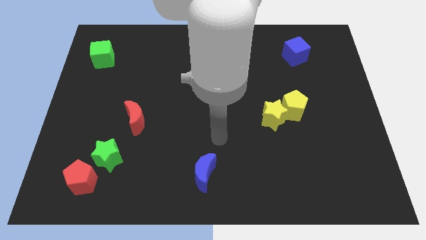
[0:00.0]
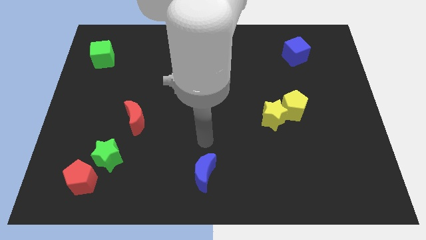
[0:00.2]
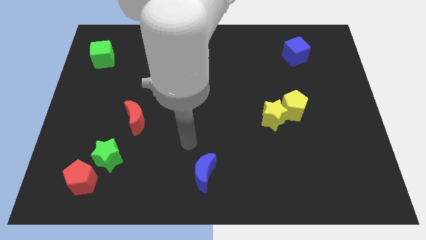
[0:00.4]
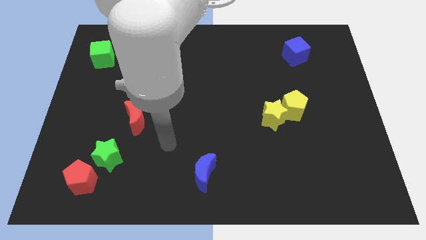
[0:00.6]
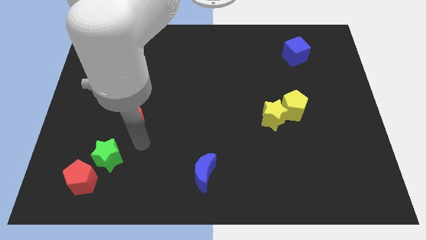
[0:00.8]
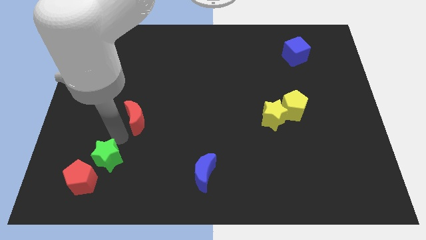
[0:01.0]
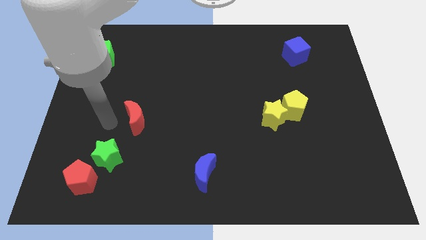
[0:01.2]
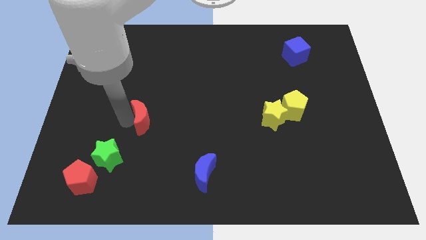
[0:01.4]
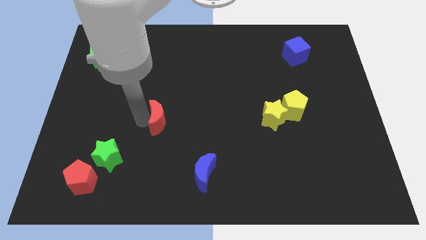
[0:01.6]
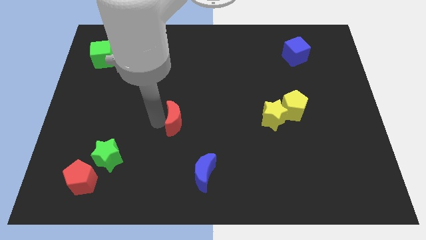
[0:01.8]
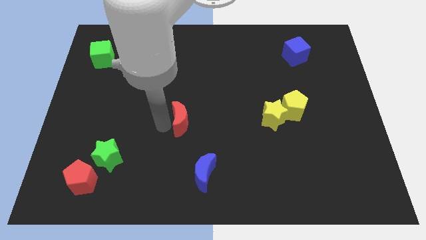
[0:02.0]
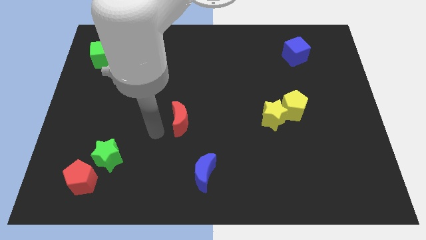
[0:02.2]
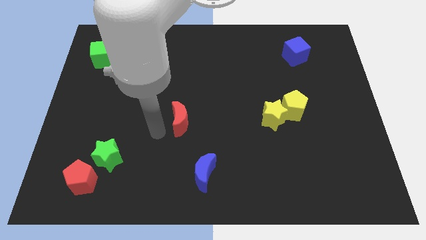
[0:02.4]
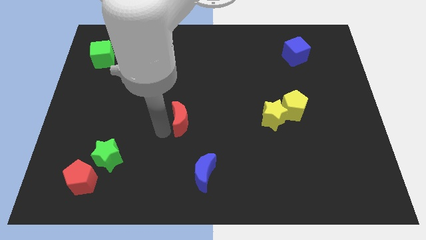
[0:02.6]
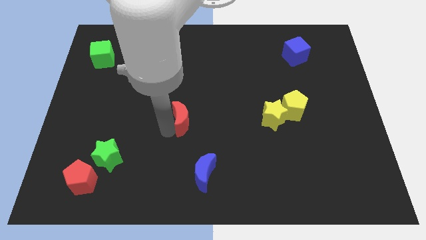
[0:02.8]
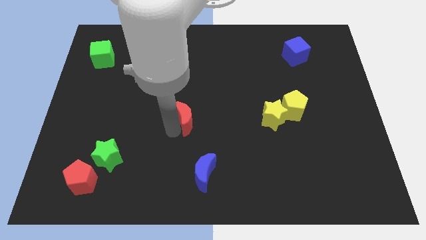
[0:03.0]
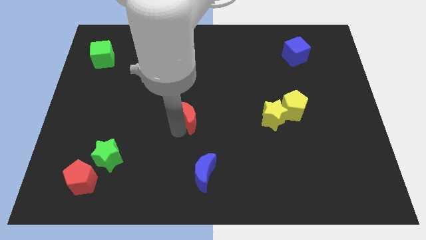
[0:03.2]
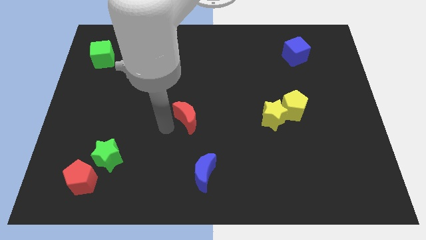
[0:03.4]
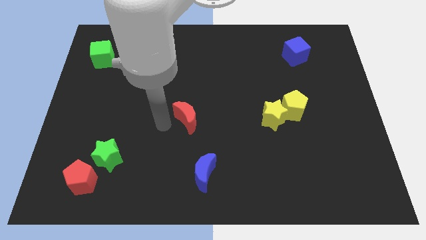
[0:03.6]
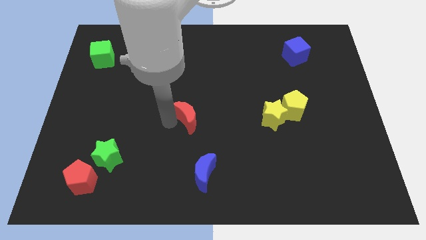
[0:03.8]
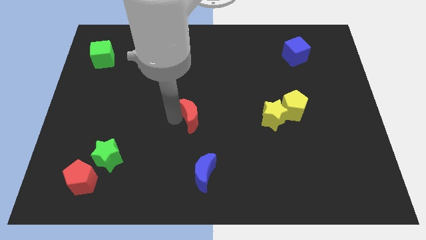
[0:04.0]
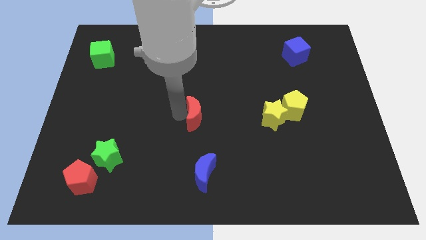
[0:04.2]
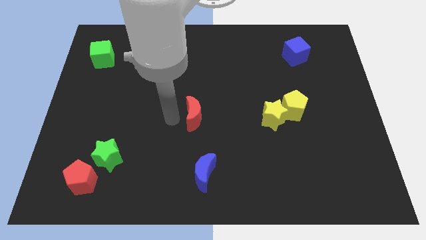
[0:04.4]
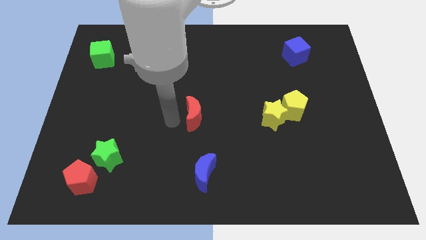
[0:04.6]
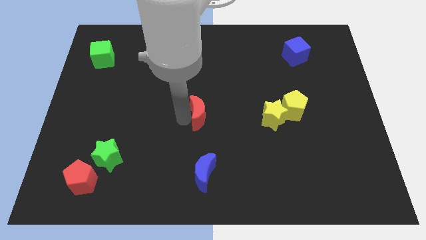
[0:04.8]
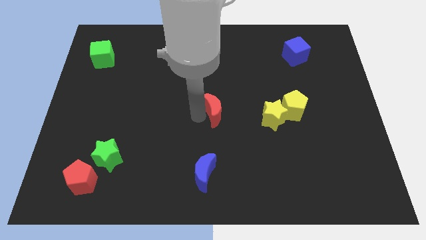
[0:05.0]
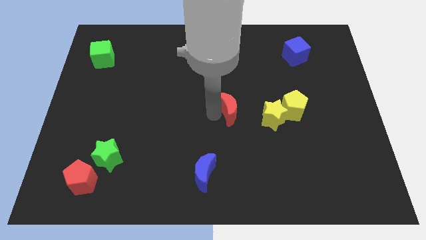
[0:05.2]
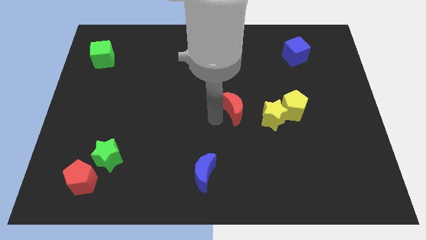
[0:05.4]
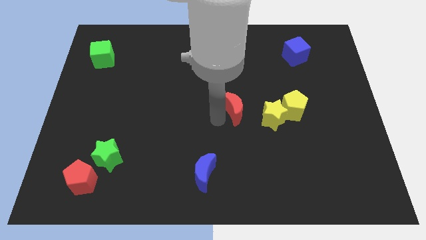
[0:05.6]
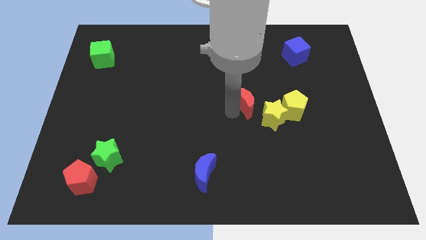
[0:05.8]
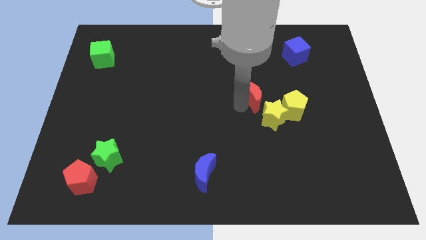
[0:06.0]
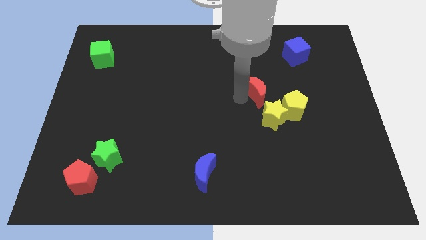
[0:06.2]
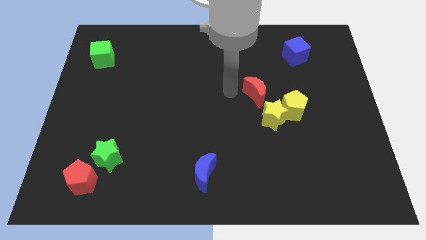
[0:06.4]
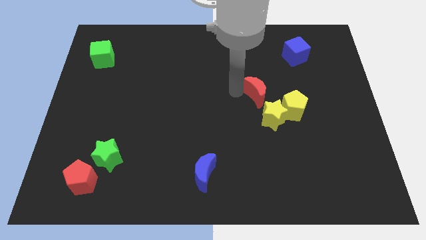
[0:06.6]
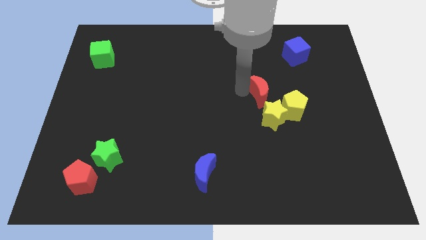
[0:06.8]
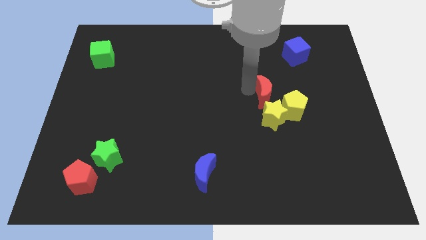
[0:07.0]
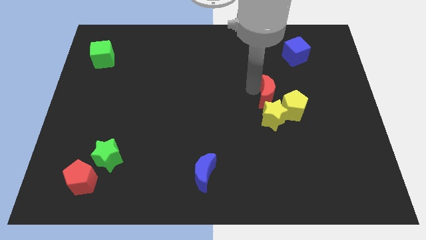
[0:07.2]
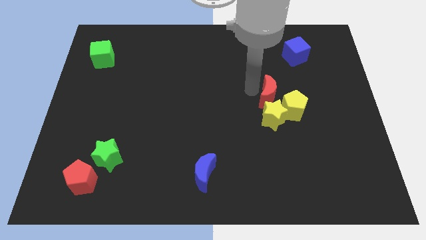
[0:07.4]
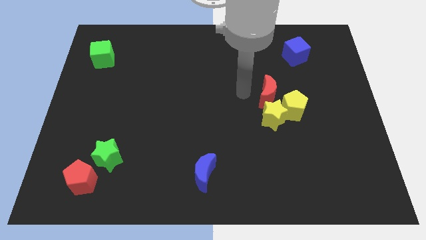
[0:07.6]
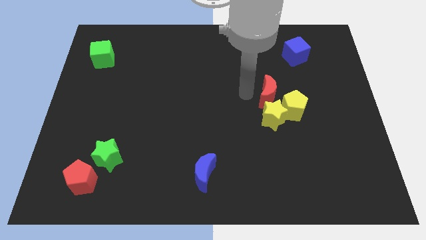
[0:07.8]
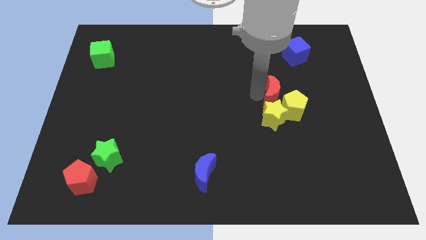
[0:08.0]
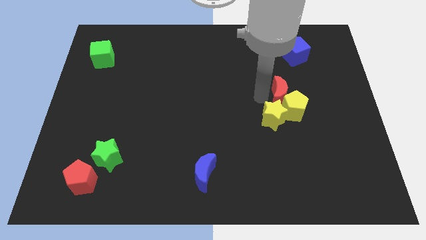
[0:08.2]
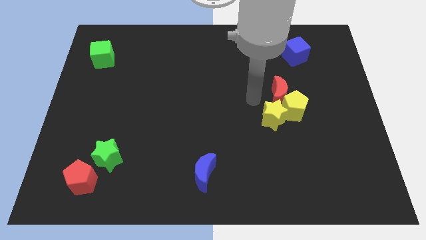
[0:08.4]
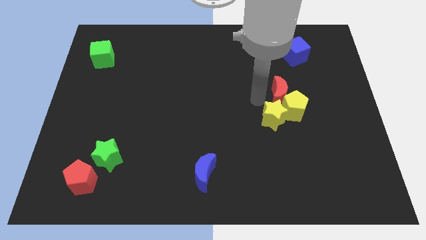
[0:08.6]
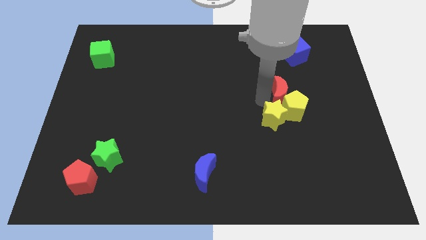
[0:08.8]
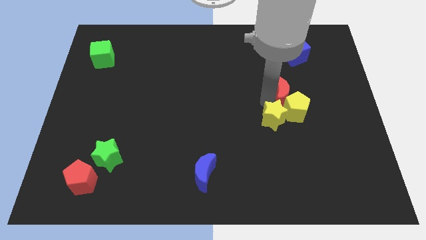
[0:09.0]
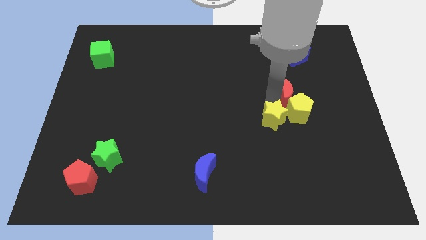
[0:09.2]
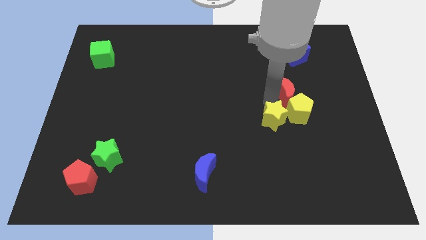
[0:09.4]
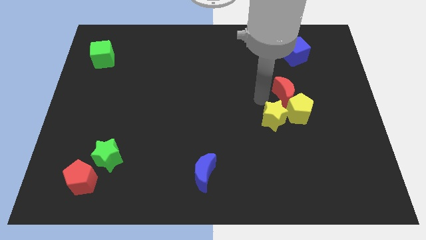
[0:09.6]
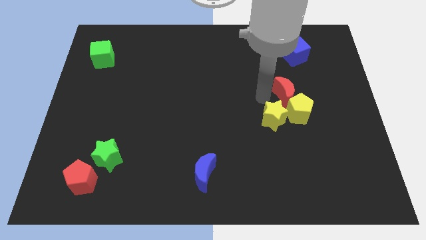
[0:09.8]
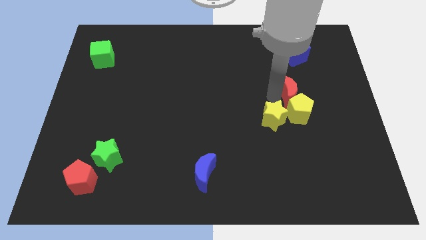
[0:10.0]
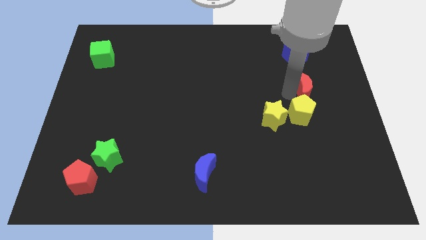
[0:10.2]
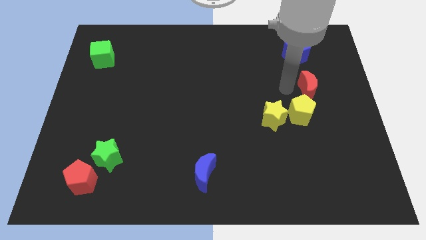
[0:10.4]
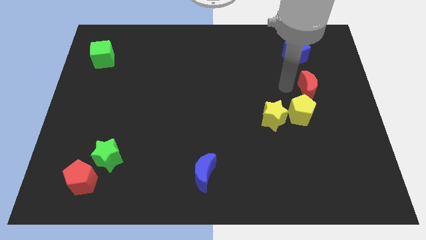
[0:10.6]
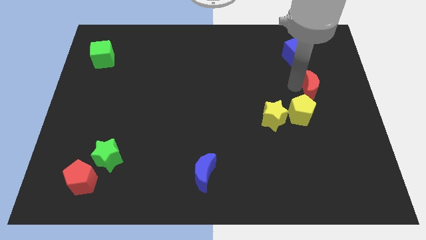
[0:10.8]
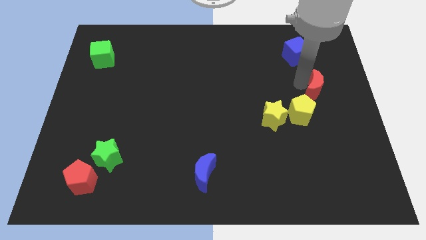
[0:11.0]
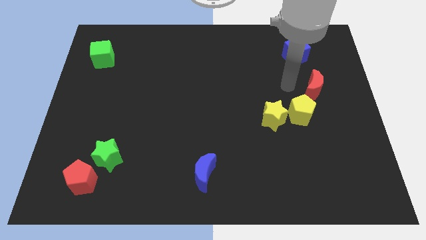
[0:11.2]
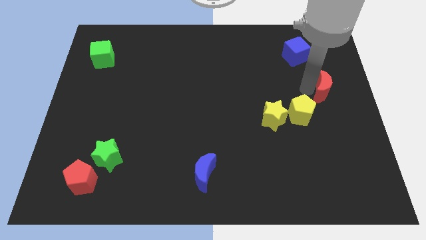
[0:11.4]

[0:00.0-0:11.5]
slide the red moon to the right side

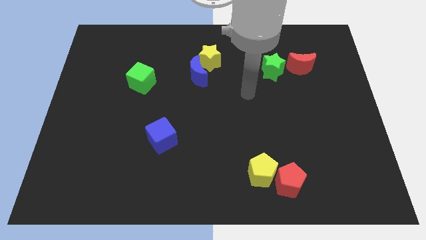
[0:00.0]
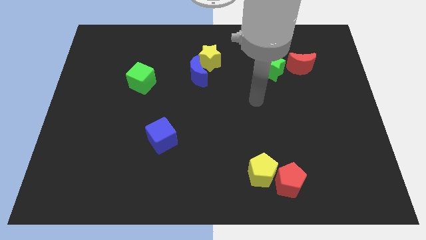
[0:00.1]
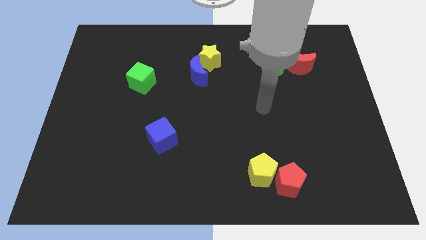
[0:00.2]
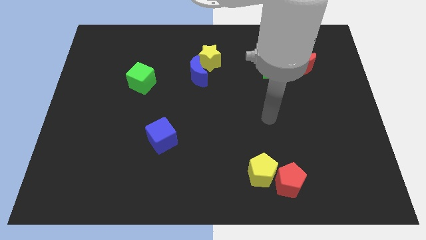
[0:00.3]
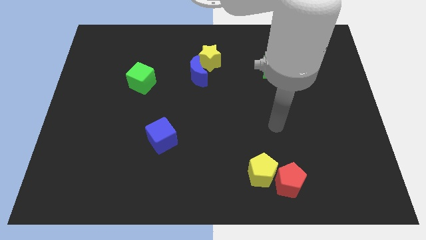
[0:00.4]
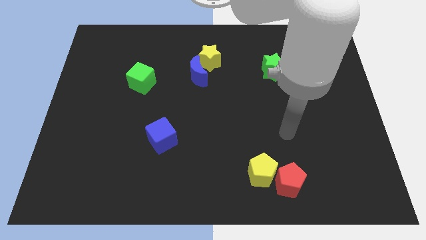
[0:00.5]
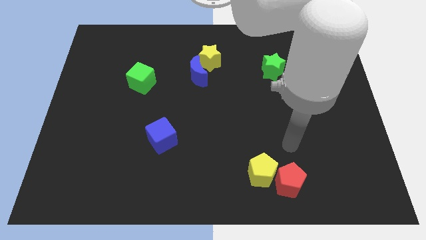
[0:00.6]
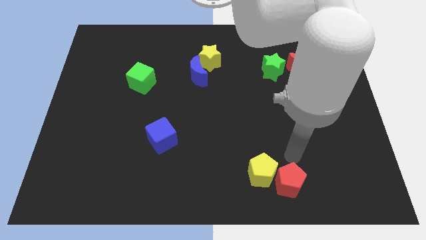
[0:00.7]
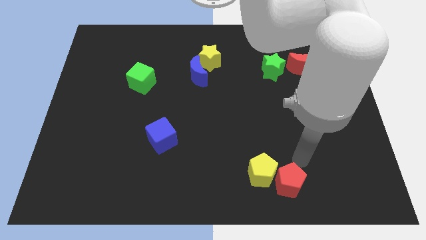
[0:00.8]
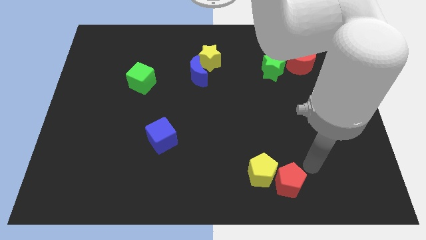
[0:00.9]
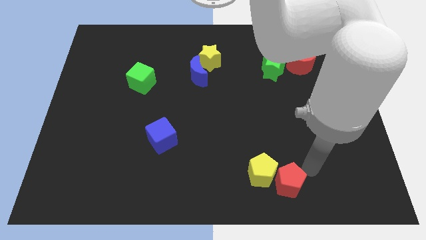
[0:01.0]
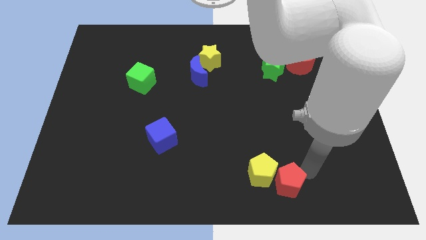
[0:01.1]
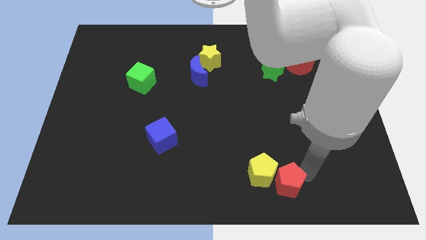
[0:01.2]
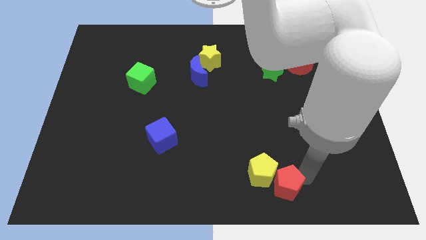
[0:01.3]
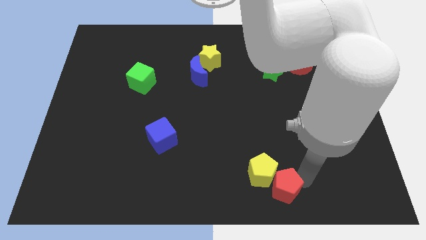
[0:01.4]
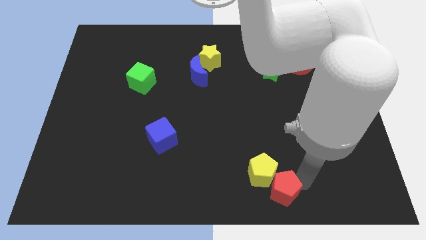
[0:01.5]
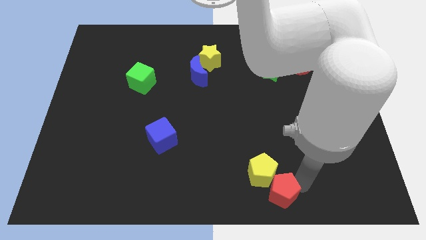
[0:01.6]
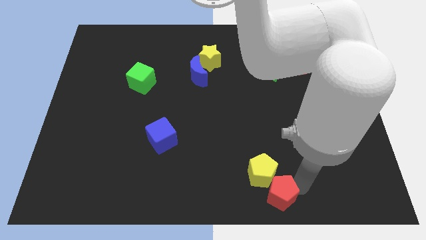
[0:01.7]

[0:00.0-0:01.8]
push the red pentagon to the bottom

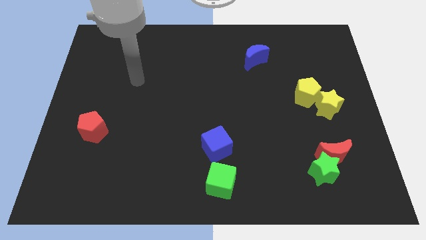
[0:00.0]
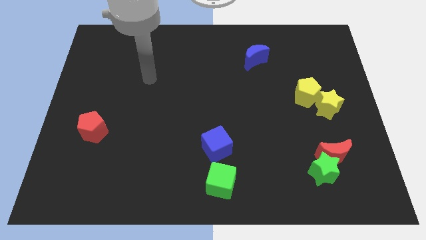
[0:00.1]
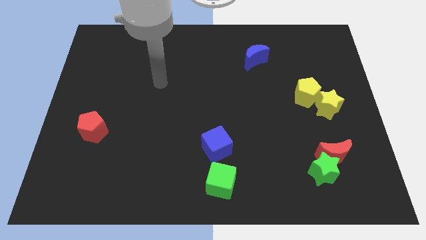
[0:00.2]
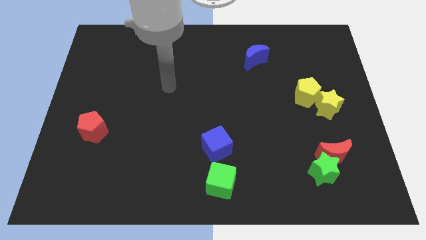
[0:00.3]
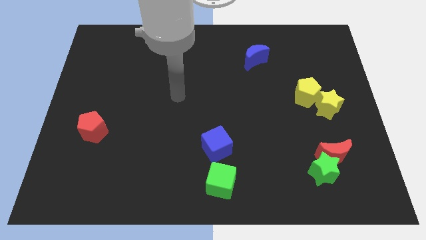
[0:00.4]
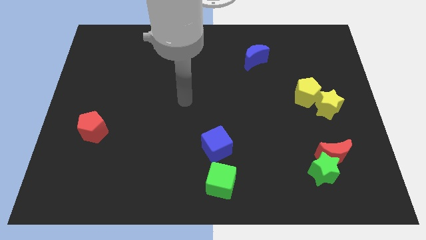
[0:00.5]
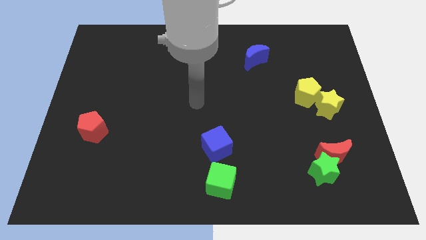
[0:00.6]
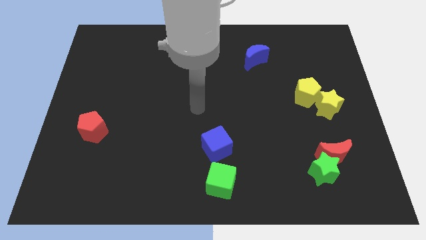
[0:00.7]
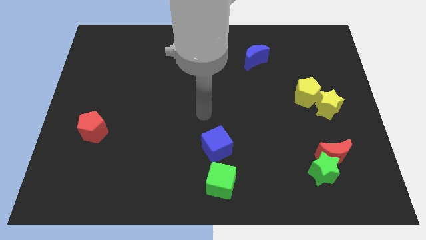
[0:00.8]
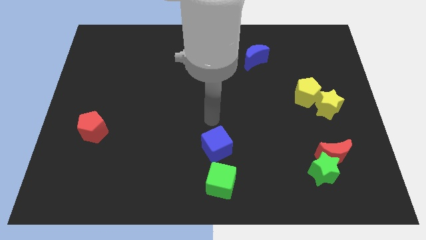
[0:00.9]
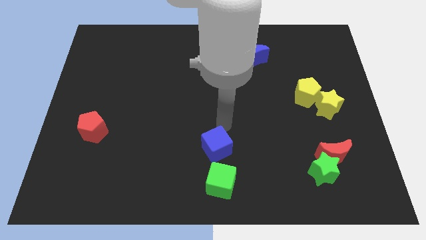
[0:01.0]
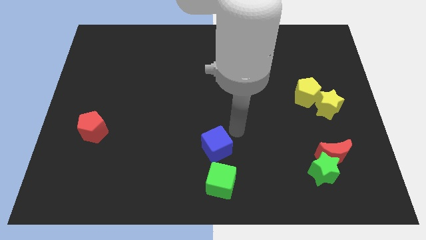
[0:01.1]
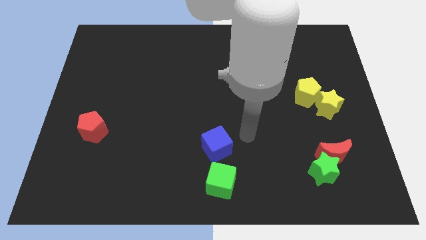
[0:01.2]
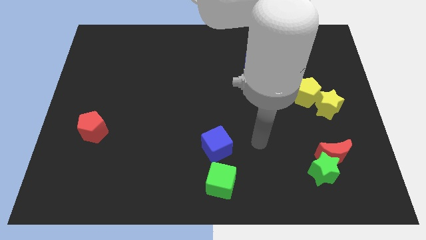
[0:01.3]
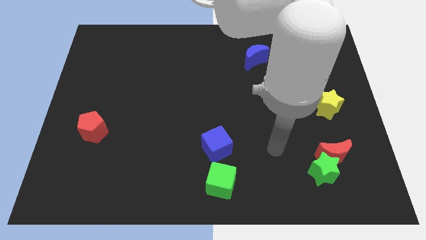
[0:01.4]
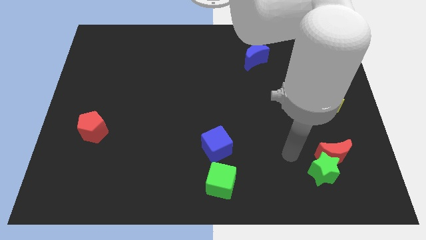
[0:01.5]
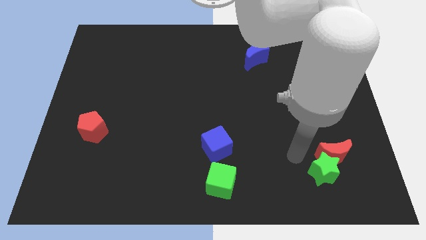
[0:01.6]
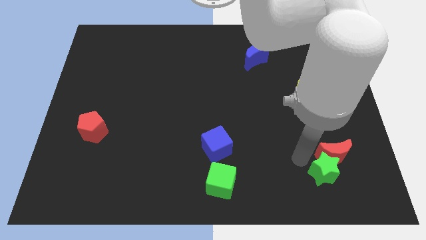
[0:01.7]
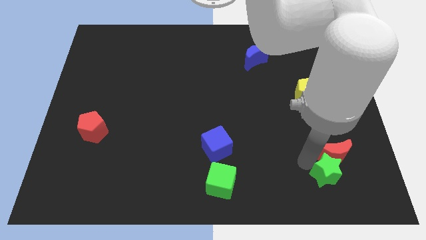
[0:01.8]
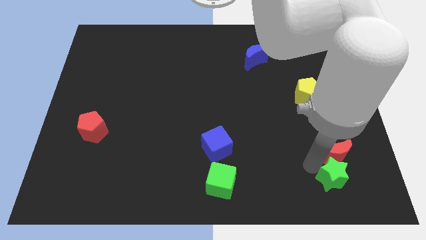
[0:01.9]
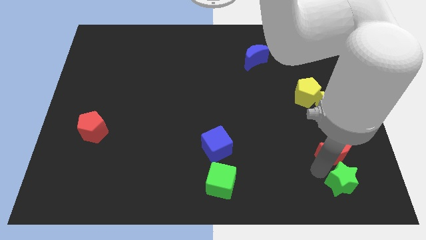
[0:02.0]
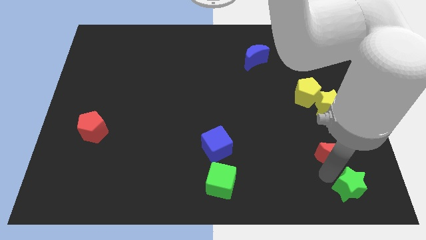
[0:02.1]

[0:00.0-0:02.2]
slide the green star to the bottom right corner
